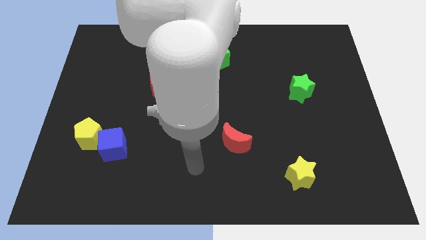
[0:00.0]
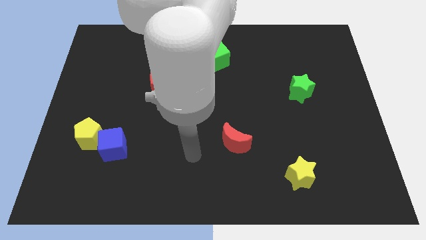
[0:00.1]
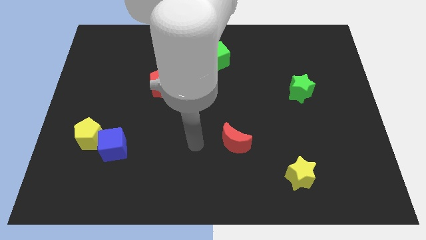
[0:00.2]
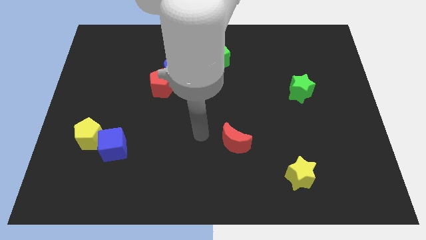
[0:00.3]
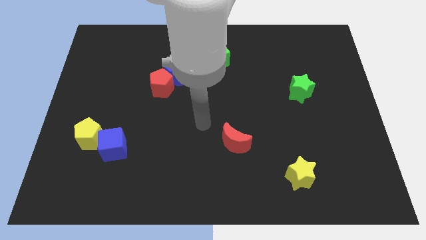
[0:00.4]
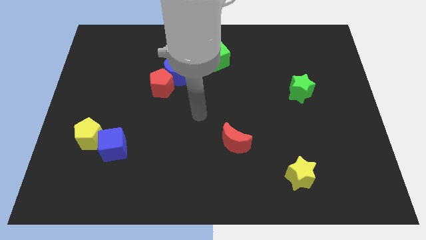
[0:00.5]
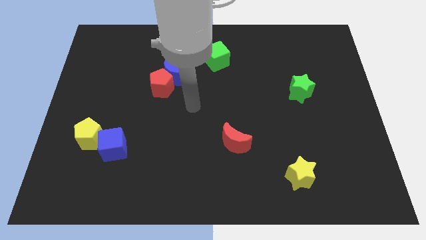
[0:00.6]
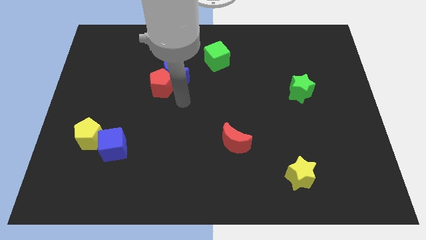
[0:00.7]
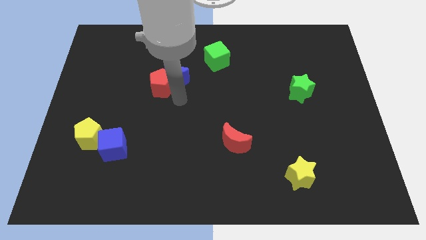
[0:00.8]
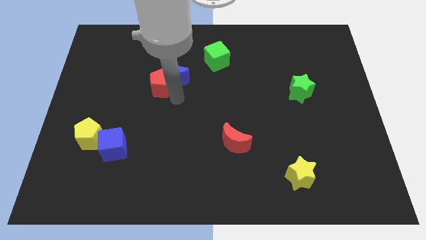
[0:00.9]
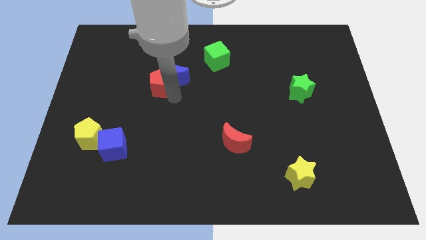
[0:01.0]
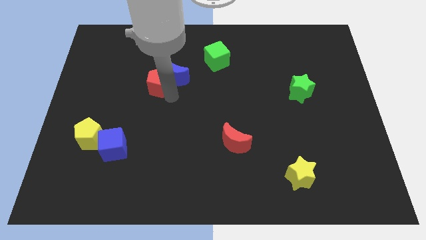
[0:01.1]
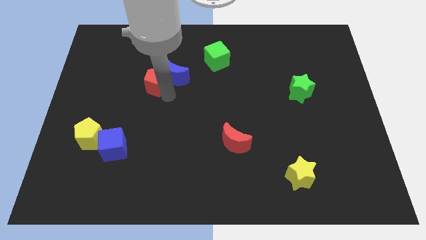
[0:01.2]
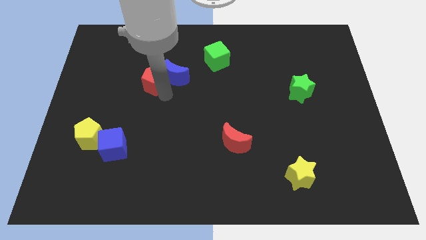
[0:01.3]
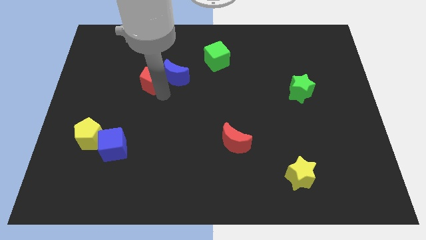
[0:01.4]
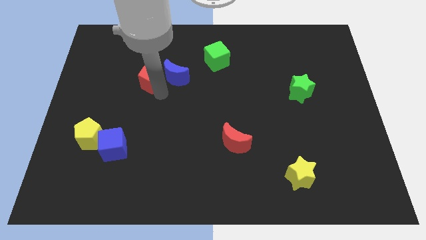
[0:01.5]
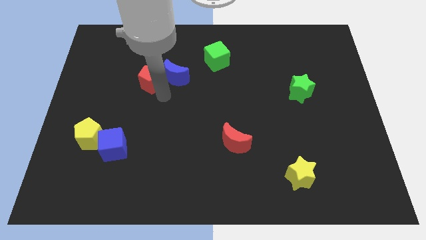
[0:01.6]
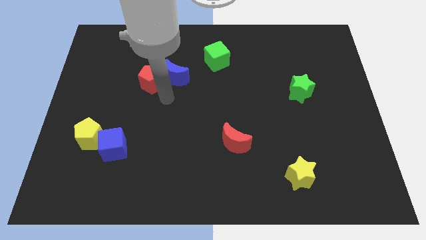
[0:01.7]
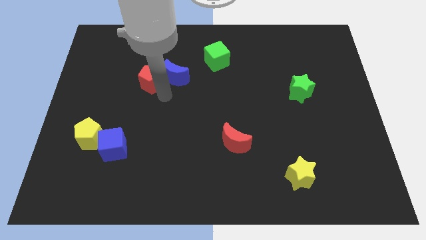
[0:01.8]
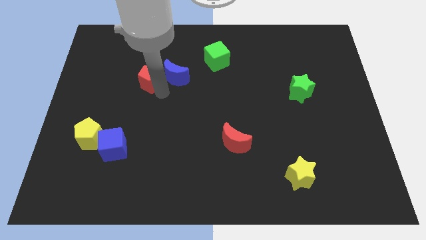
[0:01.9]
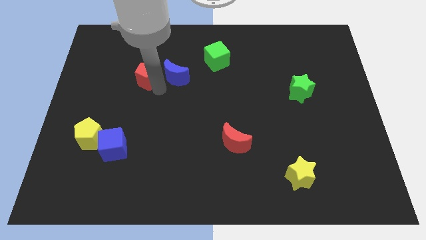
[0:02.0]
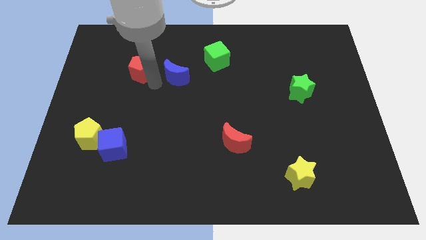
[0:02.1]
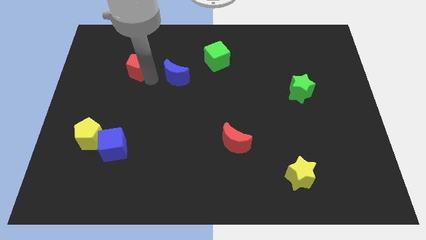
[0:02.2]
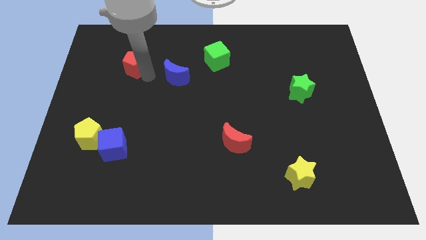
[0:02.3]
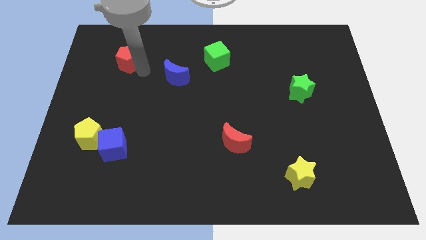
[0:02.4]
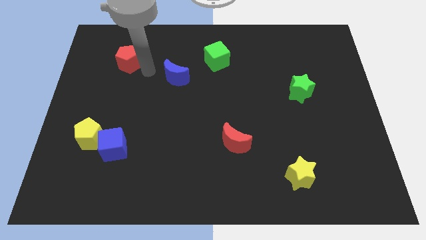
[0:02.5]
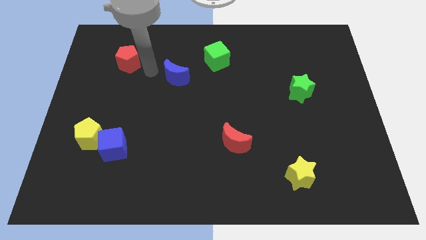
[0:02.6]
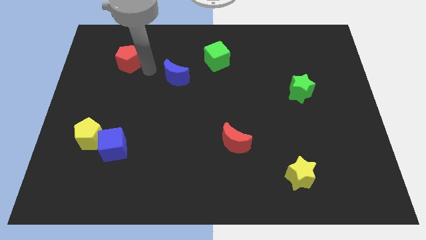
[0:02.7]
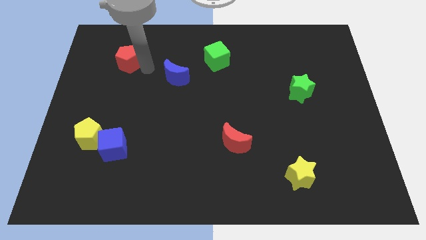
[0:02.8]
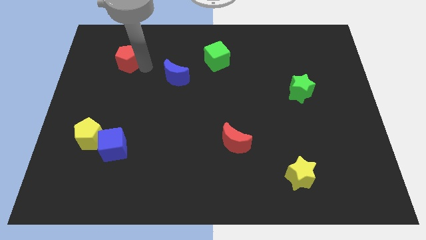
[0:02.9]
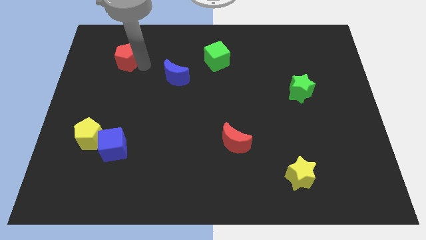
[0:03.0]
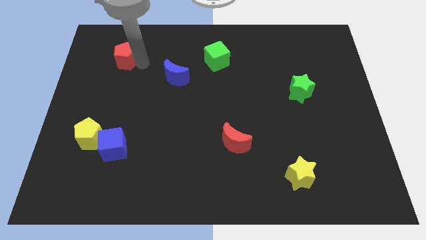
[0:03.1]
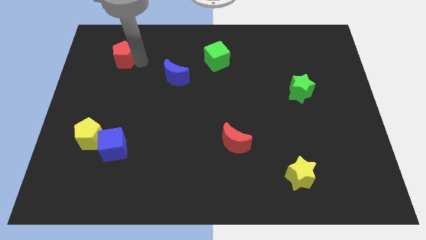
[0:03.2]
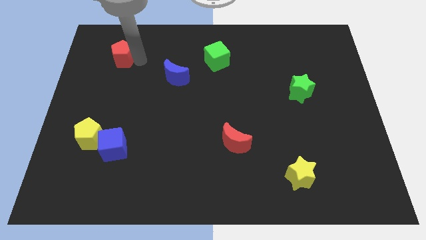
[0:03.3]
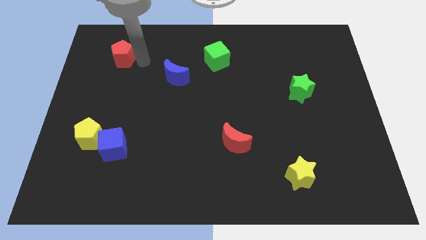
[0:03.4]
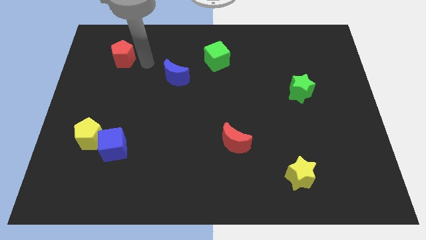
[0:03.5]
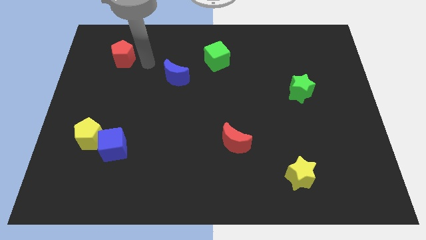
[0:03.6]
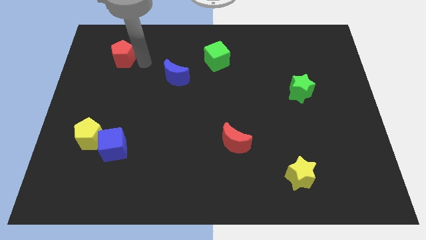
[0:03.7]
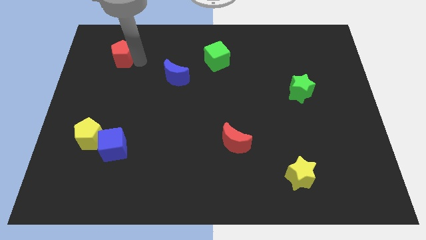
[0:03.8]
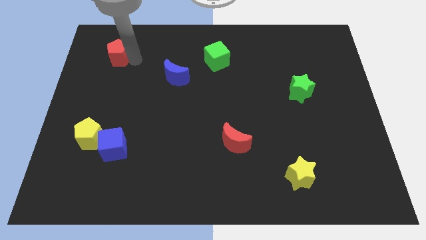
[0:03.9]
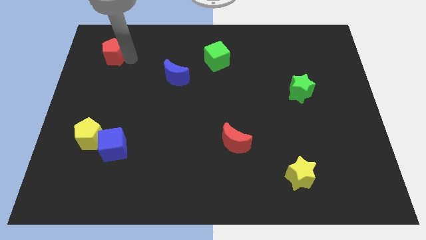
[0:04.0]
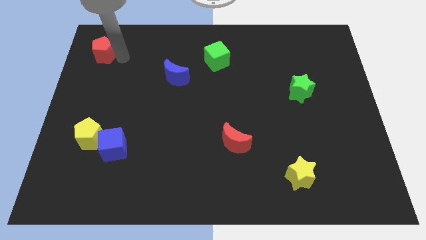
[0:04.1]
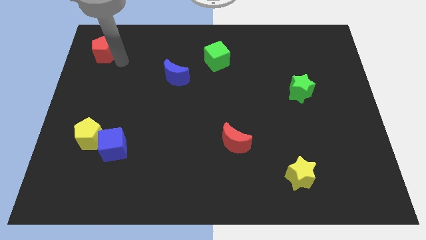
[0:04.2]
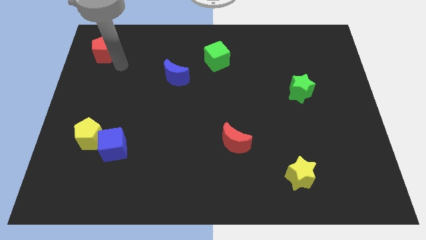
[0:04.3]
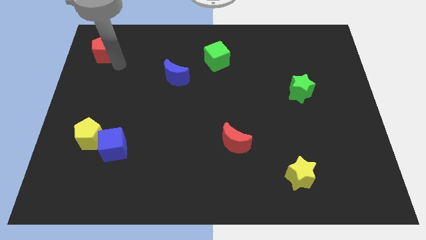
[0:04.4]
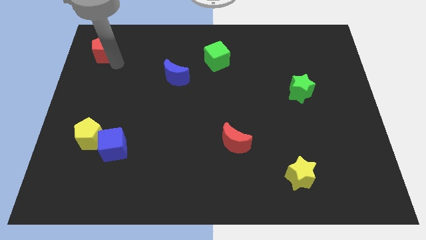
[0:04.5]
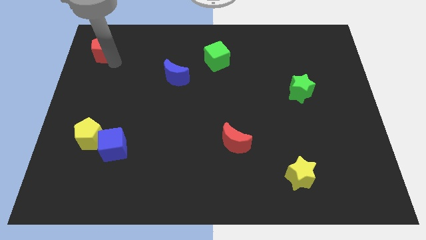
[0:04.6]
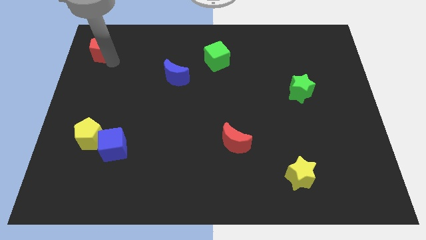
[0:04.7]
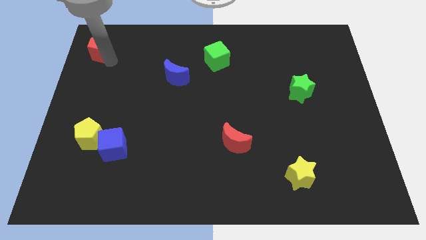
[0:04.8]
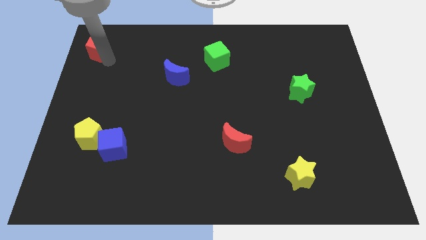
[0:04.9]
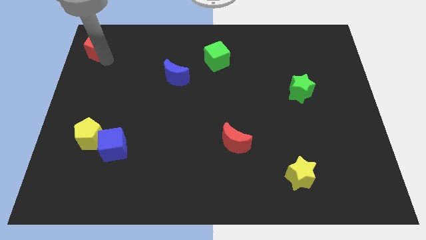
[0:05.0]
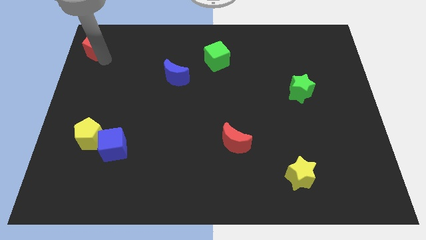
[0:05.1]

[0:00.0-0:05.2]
move the red pentagon to the top left of the board

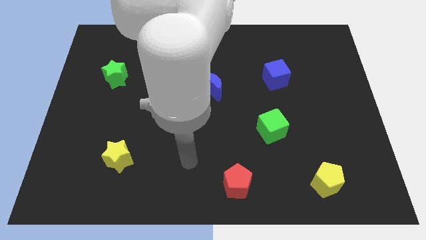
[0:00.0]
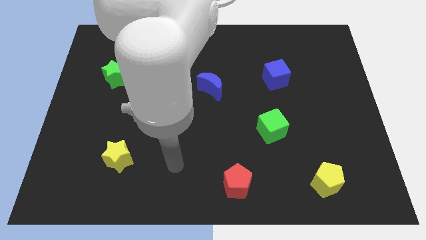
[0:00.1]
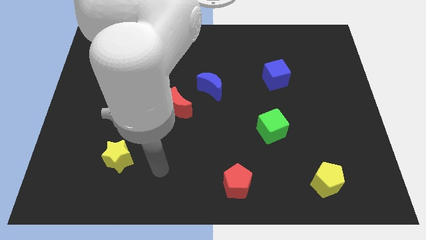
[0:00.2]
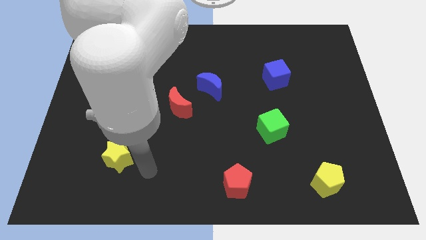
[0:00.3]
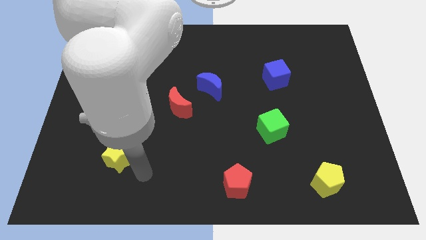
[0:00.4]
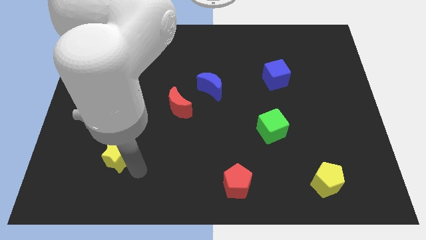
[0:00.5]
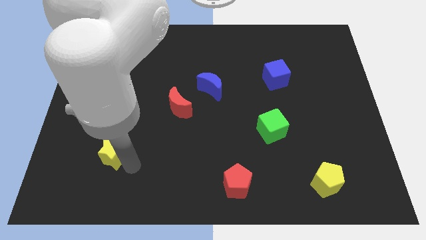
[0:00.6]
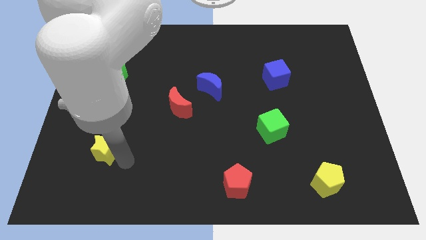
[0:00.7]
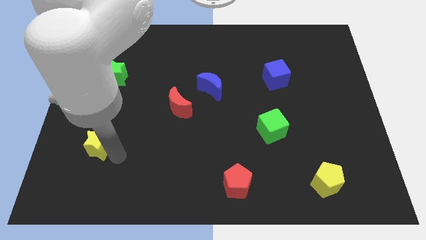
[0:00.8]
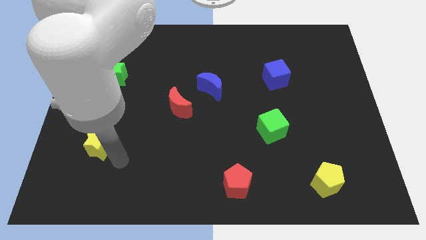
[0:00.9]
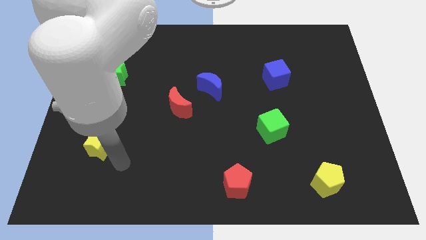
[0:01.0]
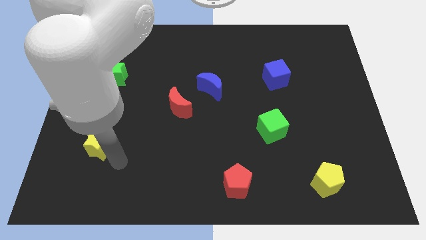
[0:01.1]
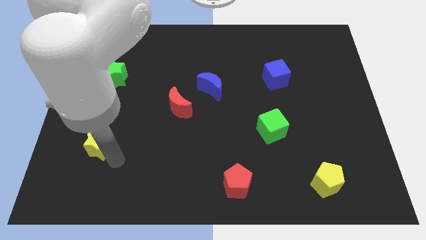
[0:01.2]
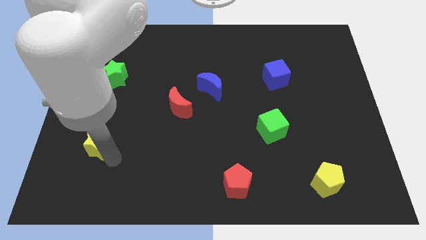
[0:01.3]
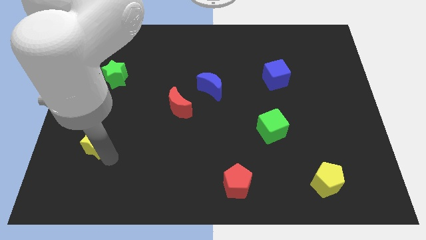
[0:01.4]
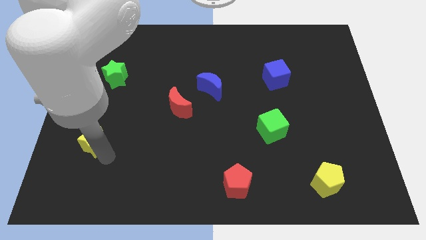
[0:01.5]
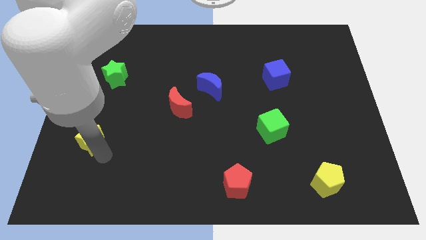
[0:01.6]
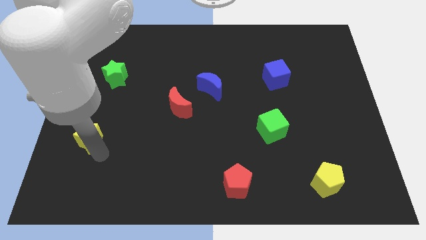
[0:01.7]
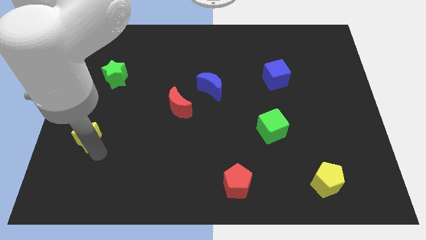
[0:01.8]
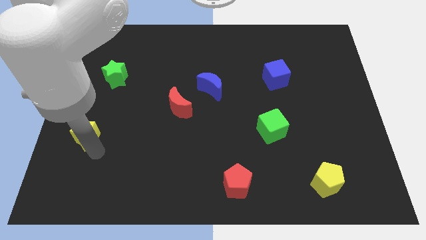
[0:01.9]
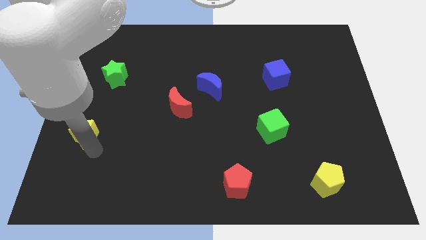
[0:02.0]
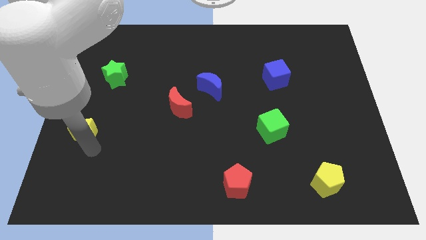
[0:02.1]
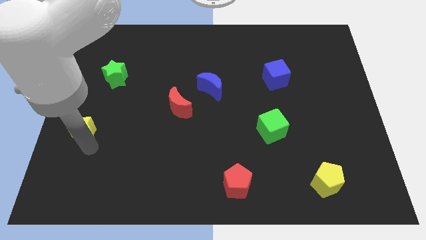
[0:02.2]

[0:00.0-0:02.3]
put the yellow star to the center left
